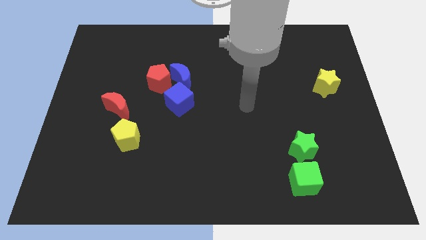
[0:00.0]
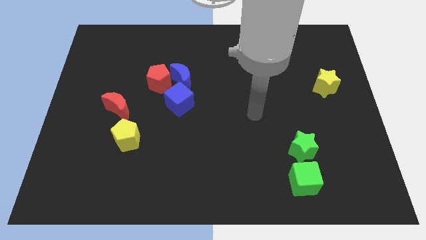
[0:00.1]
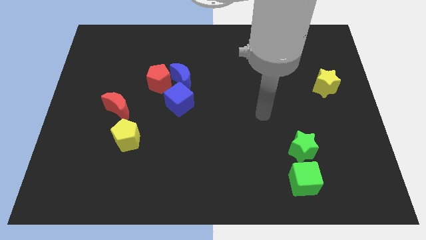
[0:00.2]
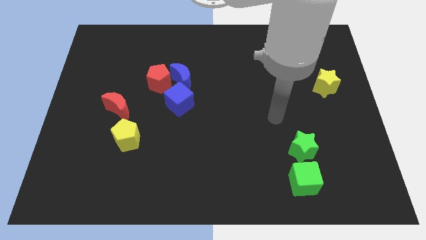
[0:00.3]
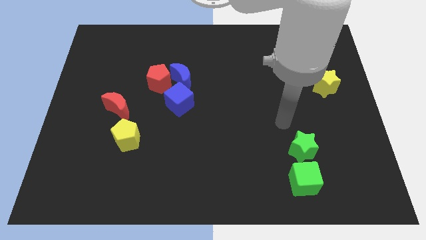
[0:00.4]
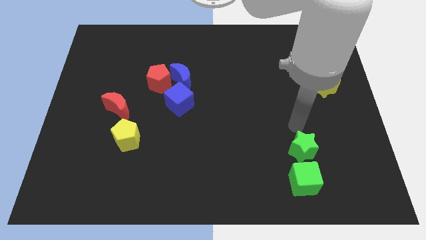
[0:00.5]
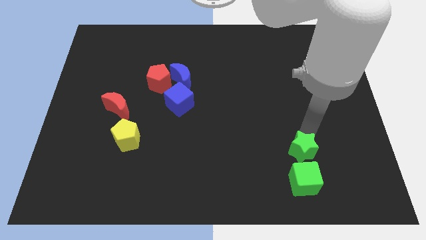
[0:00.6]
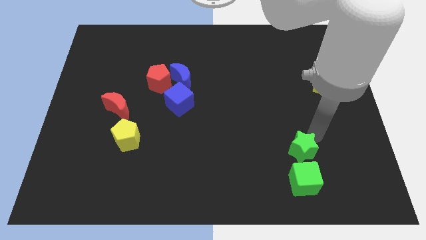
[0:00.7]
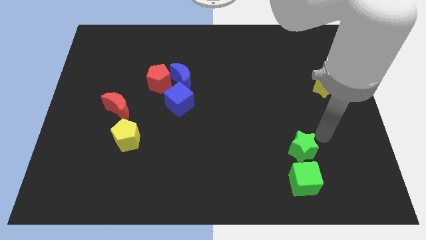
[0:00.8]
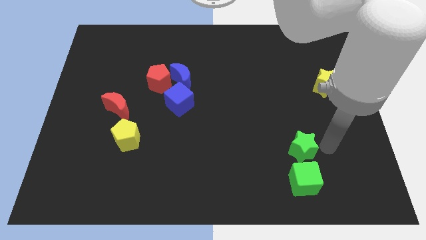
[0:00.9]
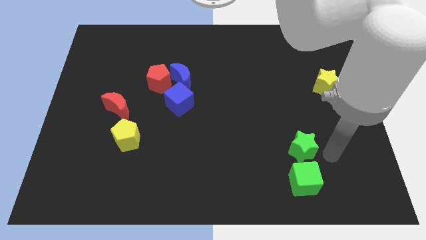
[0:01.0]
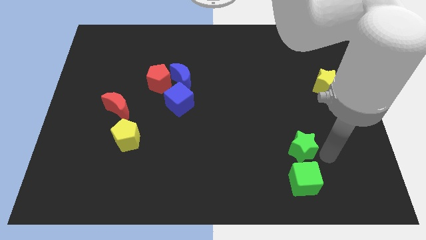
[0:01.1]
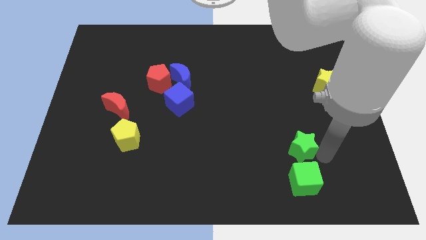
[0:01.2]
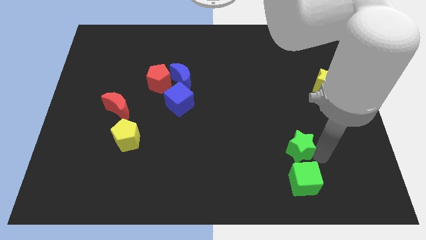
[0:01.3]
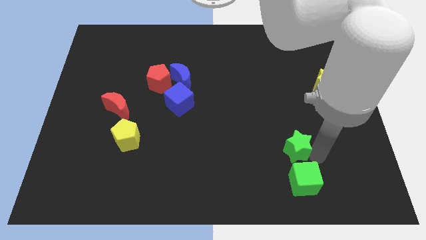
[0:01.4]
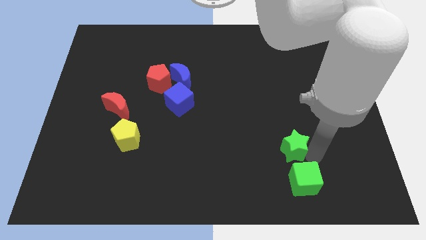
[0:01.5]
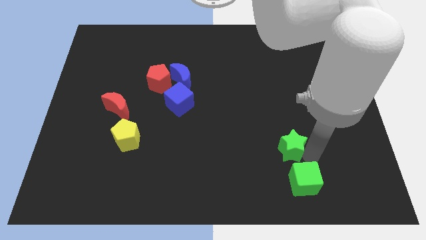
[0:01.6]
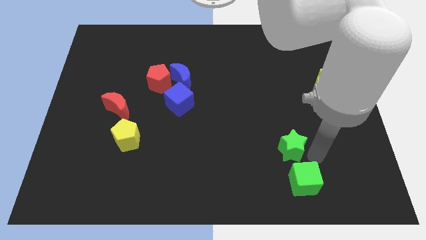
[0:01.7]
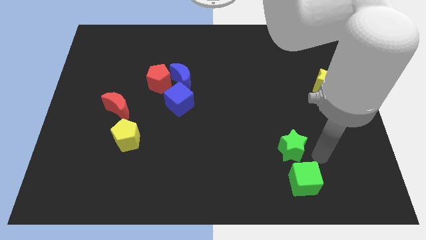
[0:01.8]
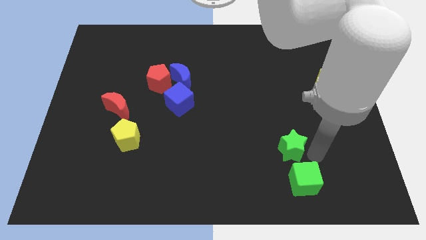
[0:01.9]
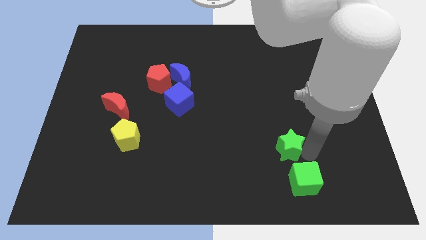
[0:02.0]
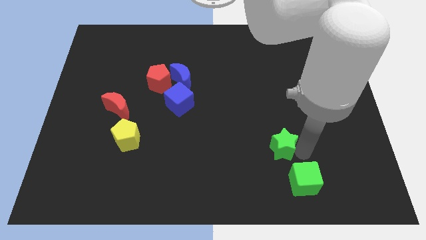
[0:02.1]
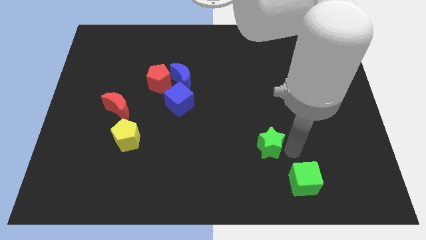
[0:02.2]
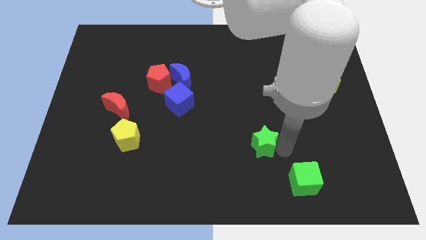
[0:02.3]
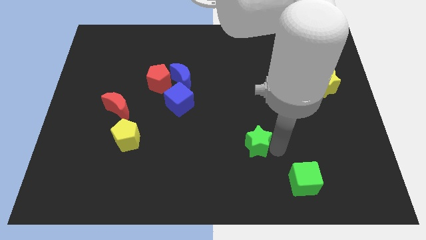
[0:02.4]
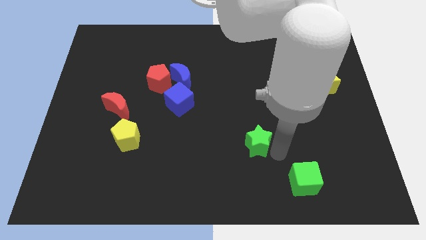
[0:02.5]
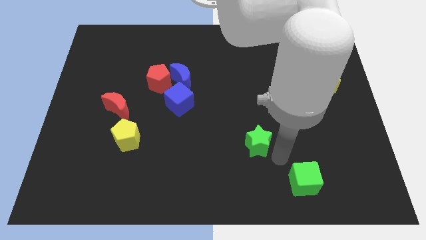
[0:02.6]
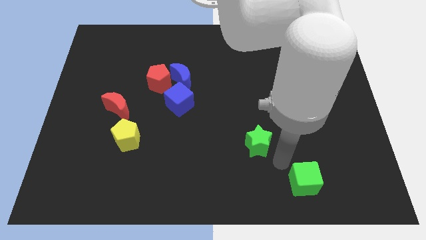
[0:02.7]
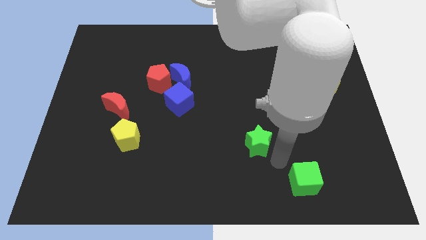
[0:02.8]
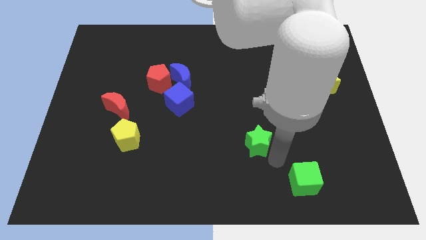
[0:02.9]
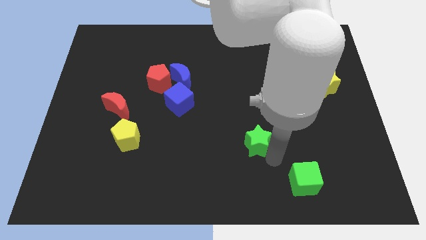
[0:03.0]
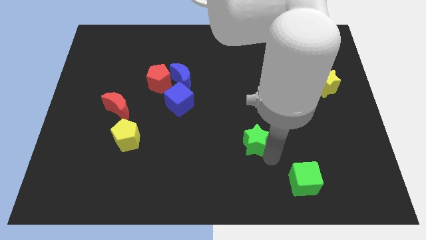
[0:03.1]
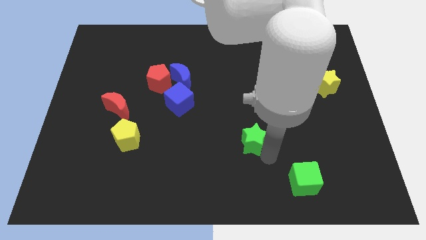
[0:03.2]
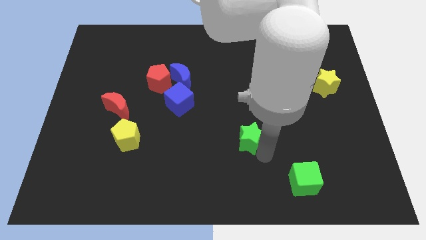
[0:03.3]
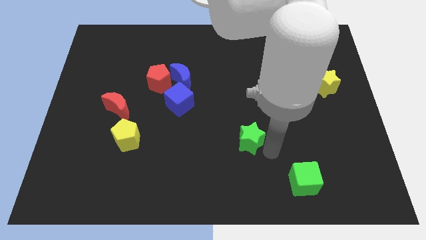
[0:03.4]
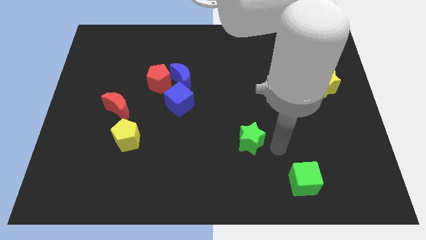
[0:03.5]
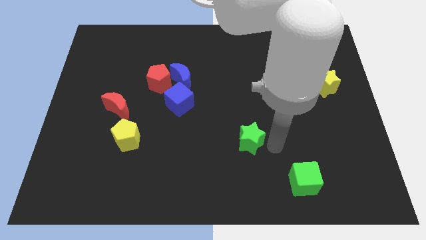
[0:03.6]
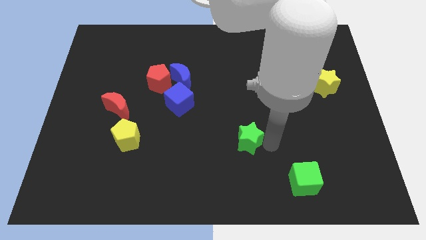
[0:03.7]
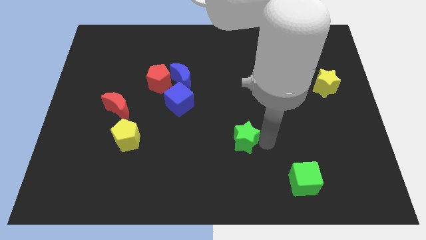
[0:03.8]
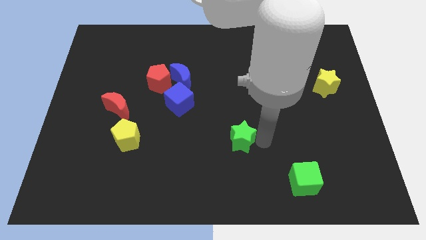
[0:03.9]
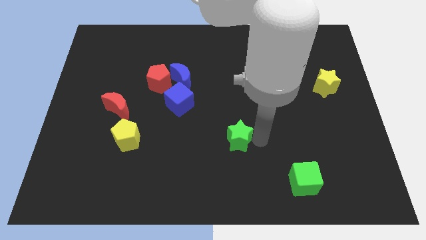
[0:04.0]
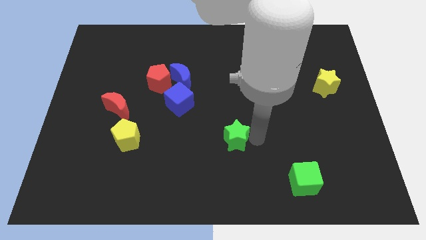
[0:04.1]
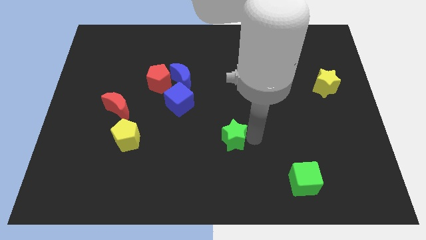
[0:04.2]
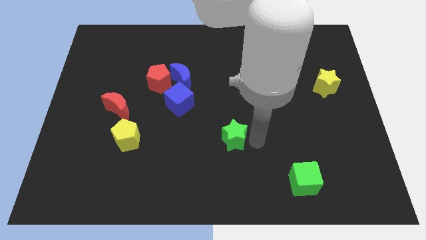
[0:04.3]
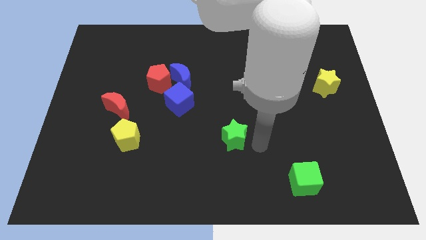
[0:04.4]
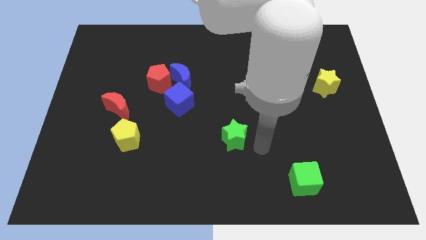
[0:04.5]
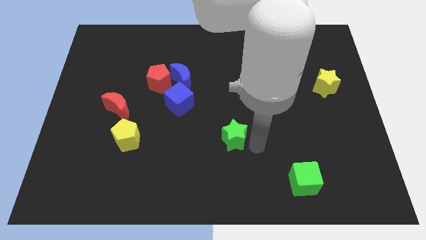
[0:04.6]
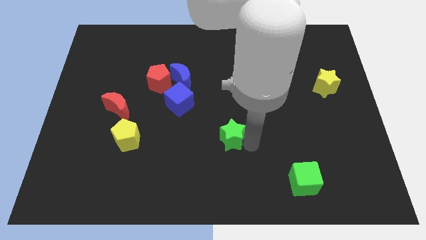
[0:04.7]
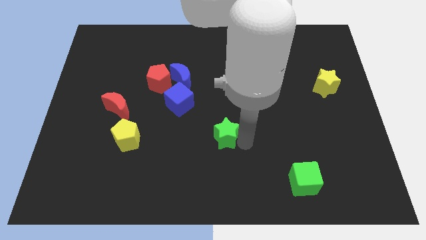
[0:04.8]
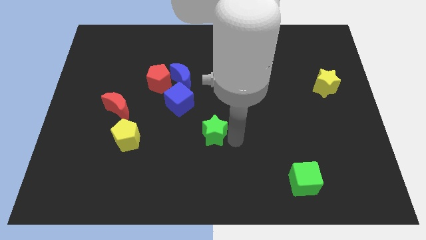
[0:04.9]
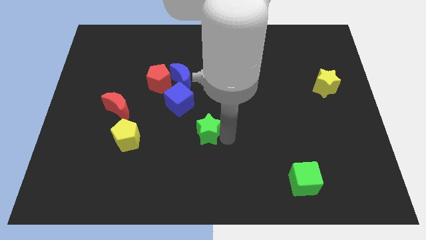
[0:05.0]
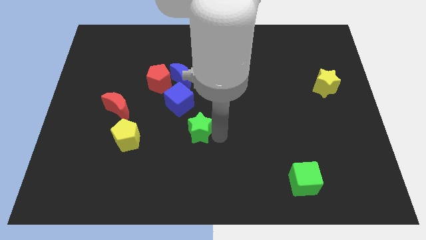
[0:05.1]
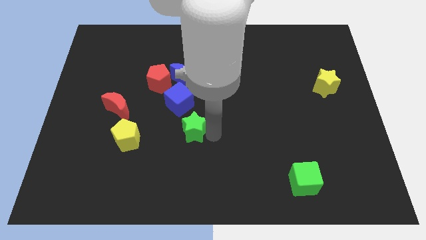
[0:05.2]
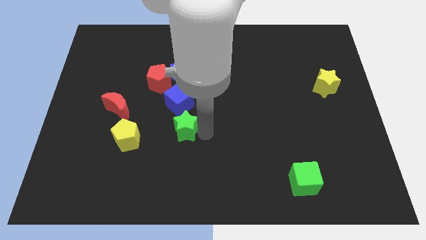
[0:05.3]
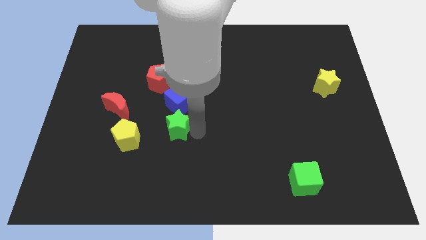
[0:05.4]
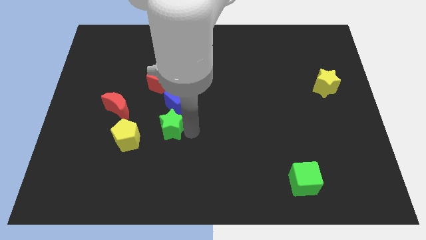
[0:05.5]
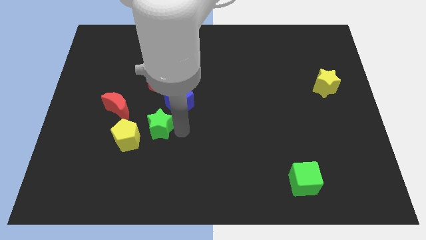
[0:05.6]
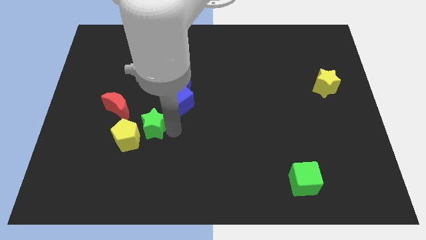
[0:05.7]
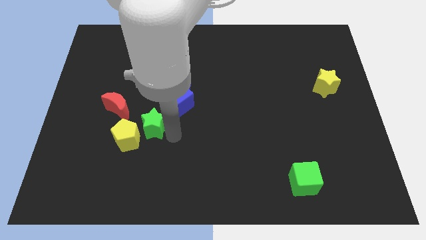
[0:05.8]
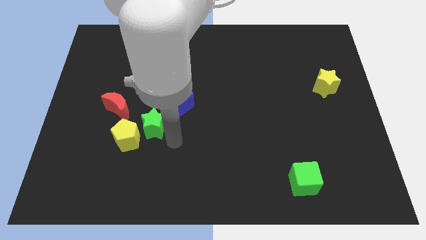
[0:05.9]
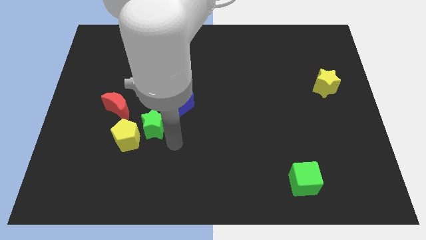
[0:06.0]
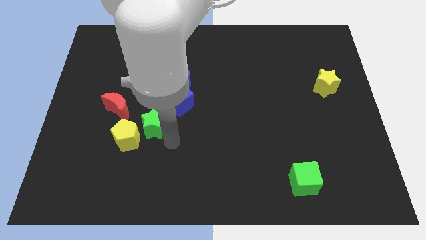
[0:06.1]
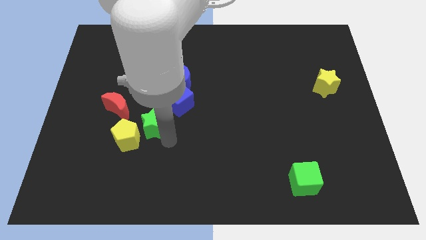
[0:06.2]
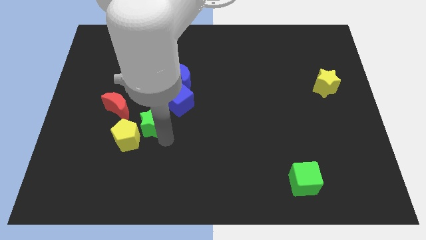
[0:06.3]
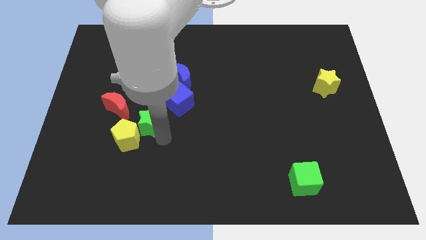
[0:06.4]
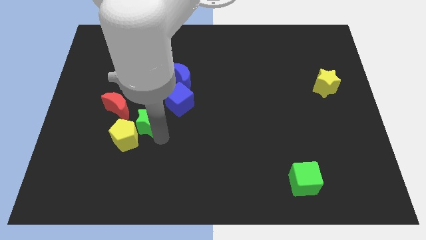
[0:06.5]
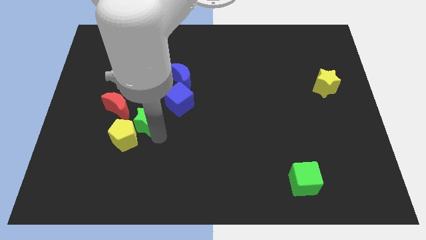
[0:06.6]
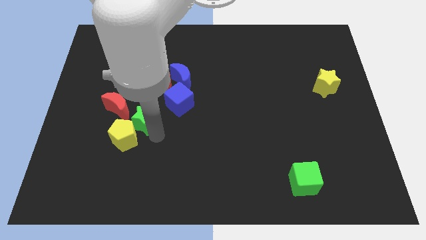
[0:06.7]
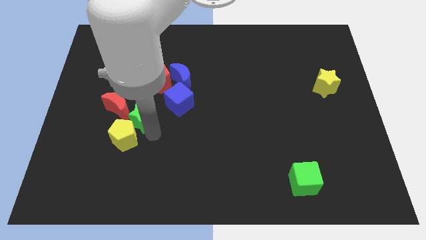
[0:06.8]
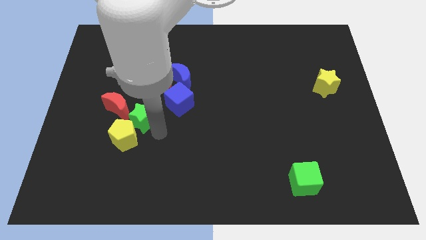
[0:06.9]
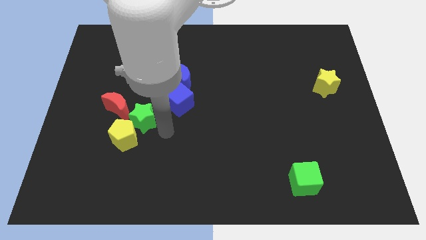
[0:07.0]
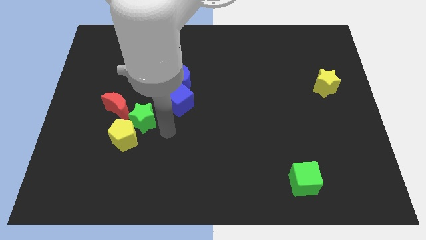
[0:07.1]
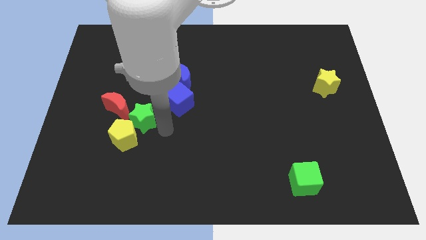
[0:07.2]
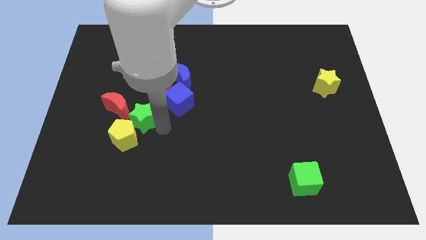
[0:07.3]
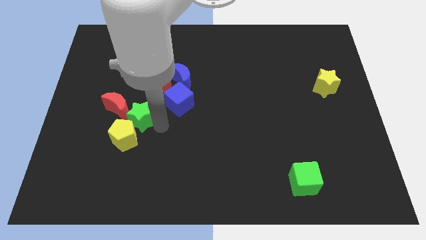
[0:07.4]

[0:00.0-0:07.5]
move the green star to the red moon
